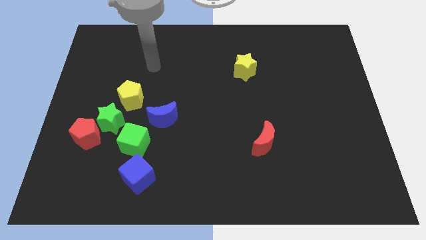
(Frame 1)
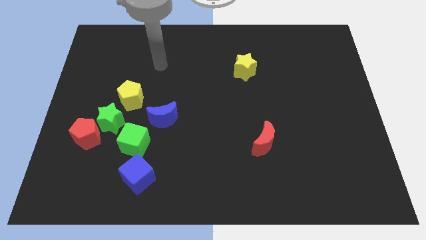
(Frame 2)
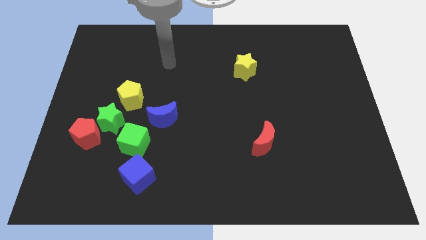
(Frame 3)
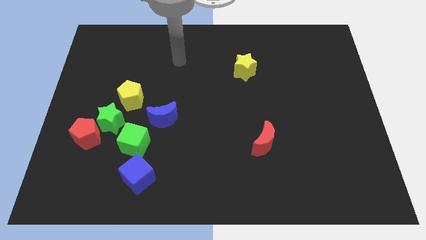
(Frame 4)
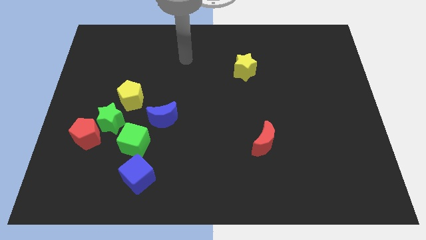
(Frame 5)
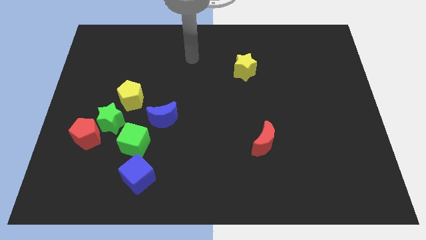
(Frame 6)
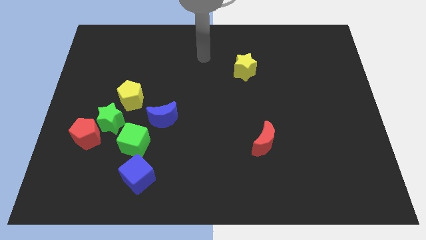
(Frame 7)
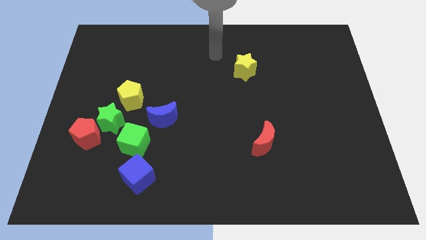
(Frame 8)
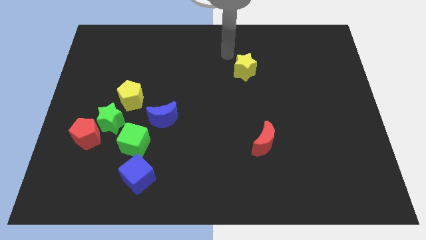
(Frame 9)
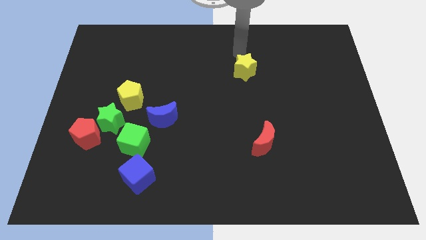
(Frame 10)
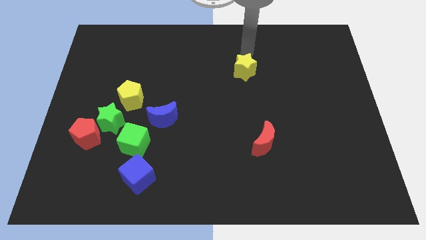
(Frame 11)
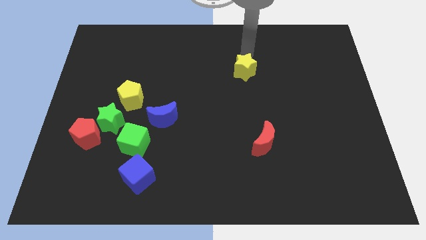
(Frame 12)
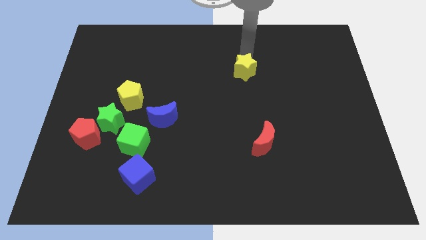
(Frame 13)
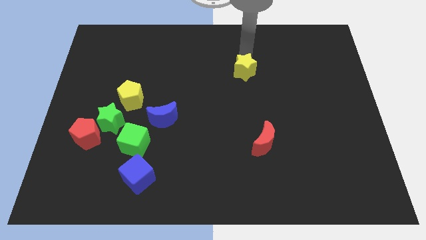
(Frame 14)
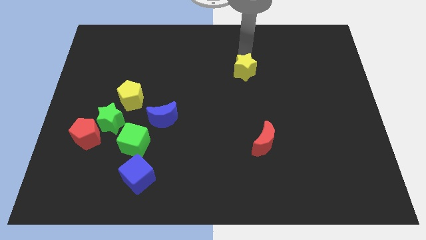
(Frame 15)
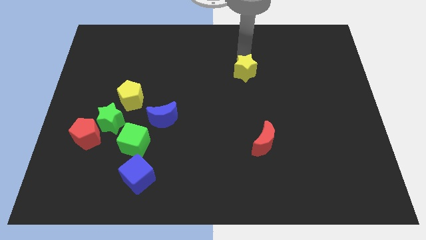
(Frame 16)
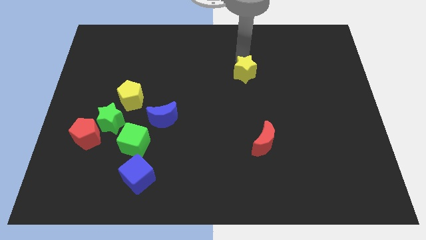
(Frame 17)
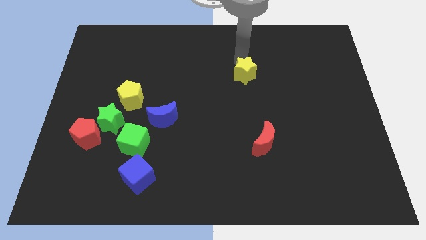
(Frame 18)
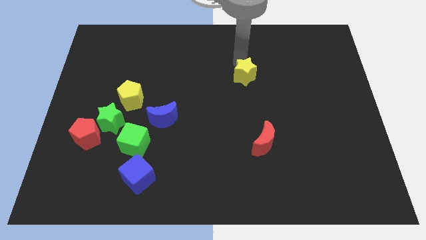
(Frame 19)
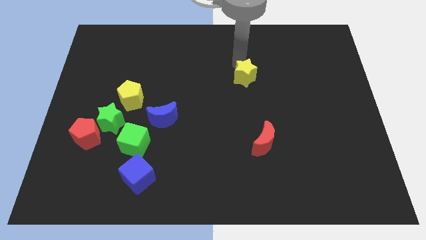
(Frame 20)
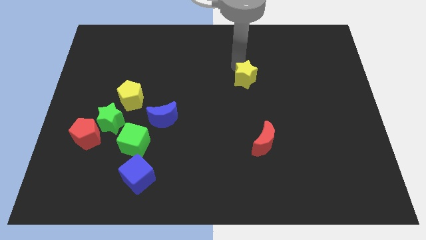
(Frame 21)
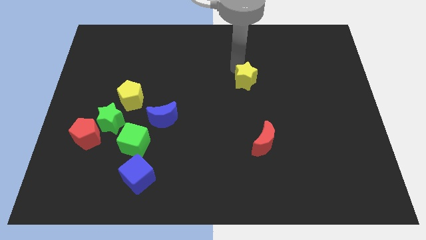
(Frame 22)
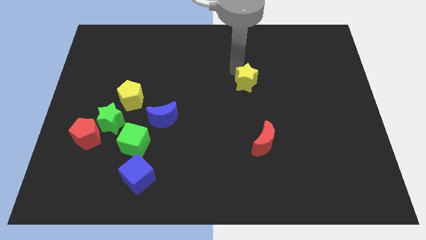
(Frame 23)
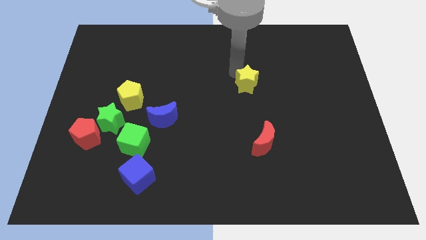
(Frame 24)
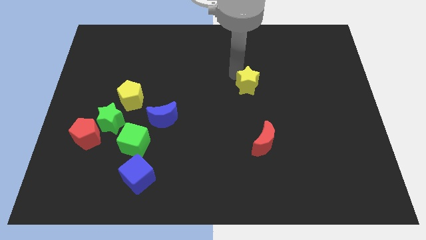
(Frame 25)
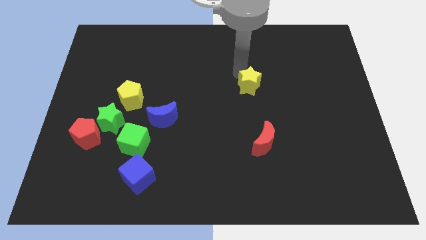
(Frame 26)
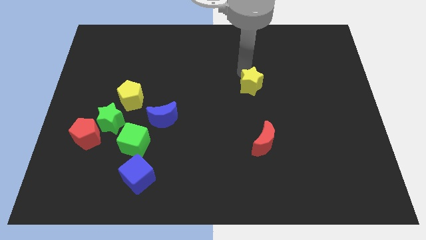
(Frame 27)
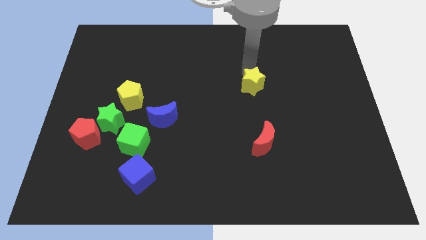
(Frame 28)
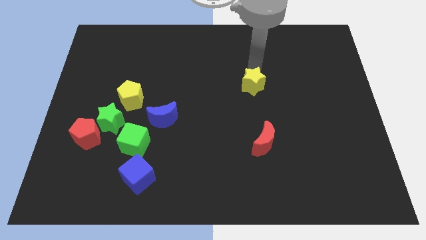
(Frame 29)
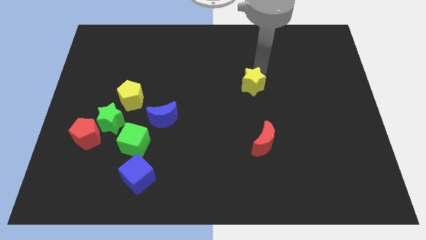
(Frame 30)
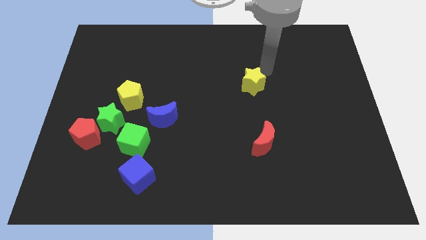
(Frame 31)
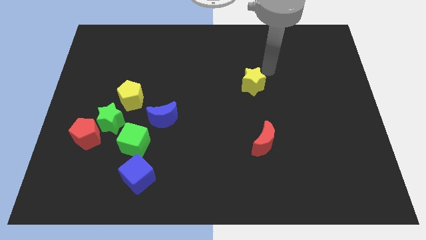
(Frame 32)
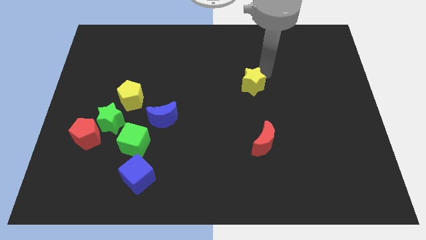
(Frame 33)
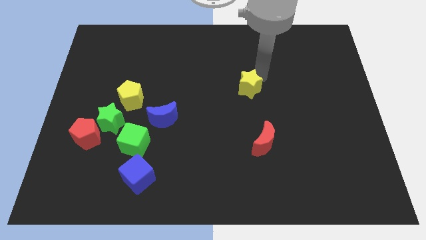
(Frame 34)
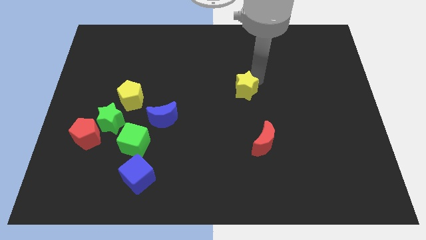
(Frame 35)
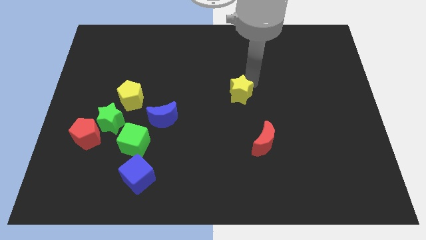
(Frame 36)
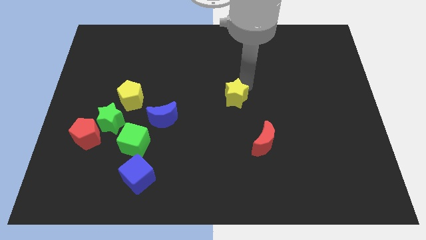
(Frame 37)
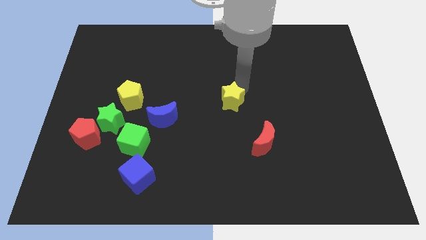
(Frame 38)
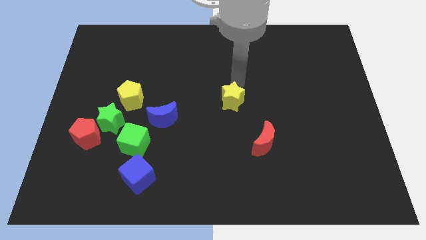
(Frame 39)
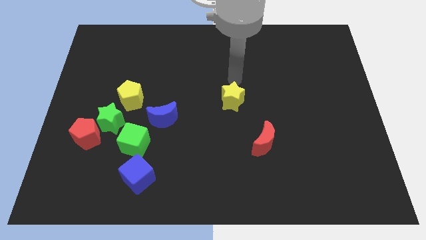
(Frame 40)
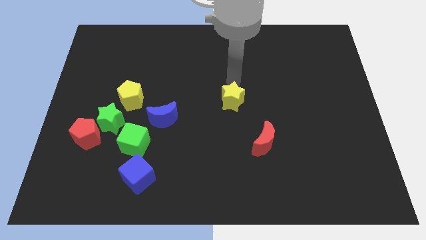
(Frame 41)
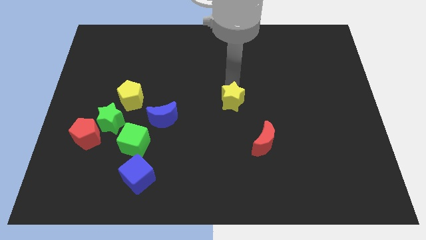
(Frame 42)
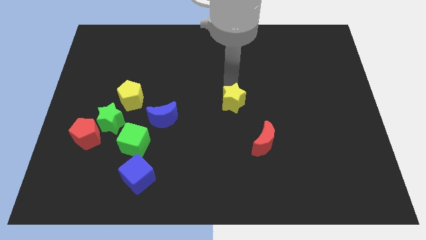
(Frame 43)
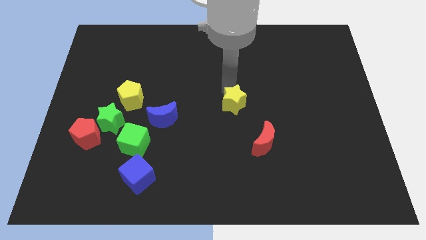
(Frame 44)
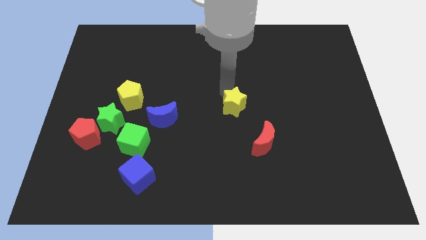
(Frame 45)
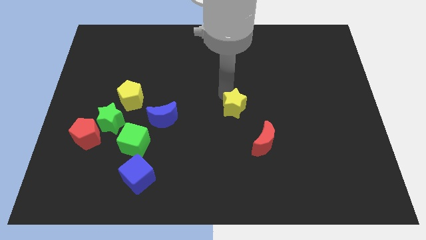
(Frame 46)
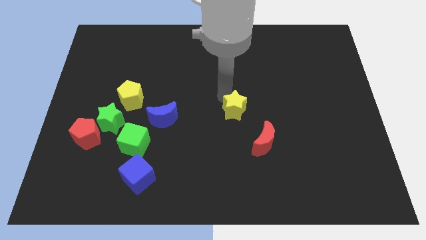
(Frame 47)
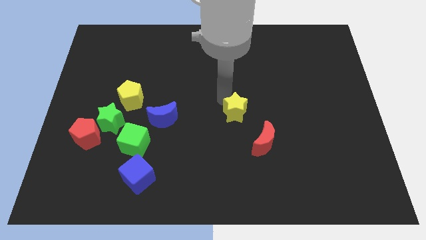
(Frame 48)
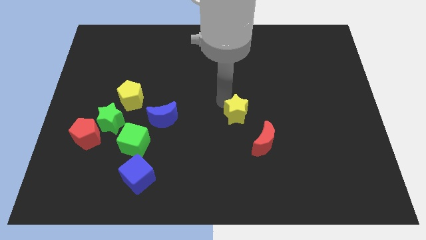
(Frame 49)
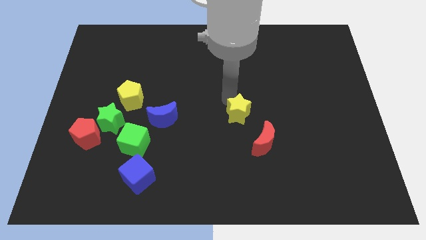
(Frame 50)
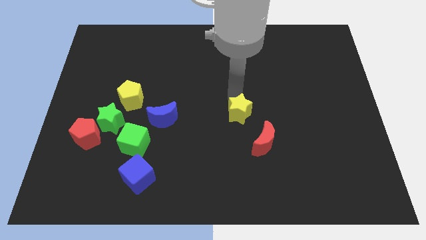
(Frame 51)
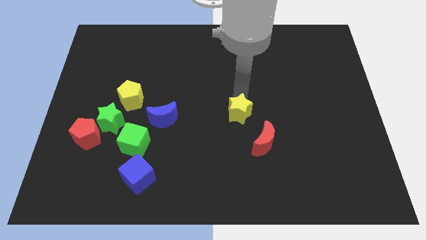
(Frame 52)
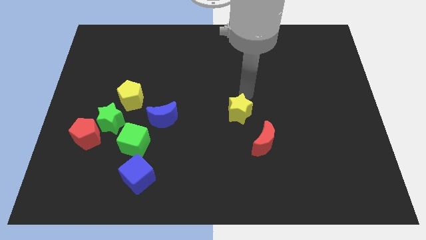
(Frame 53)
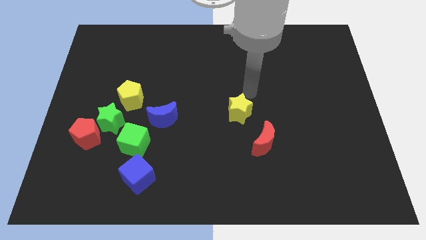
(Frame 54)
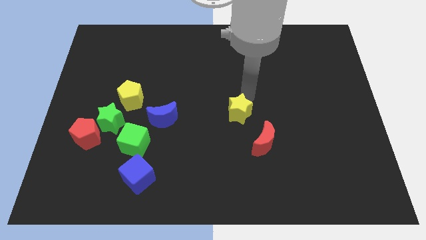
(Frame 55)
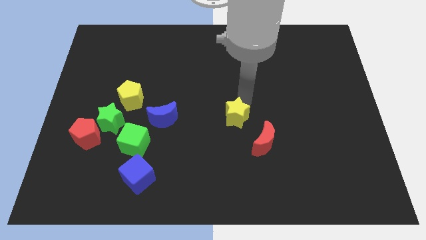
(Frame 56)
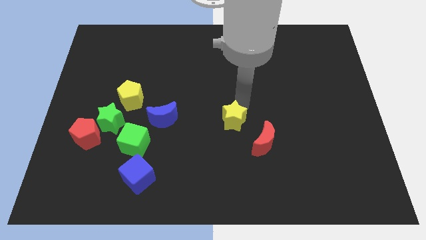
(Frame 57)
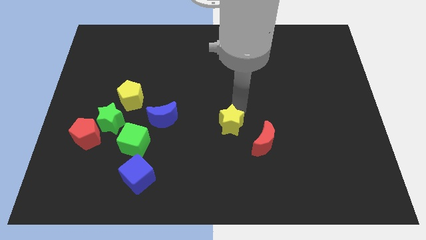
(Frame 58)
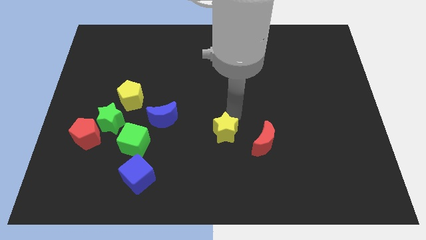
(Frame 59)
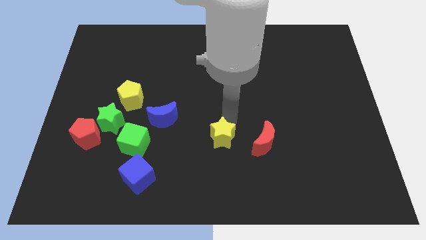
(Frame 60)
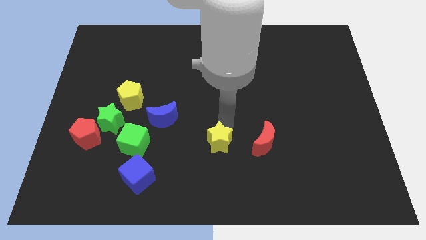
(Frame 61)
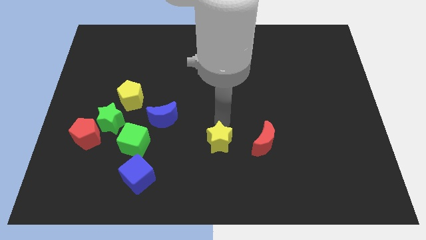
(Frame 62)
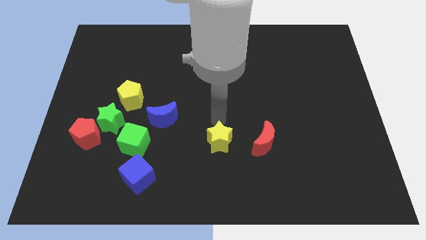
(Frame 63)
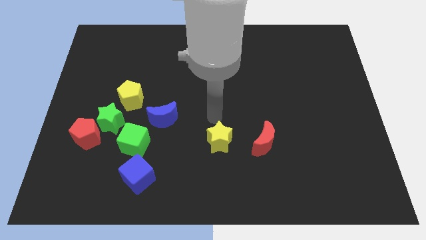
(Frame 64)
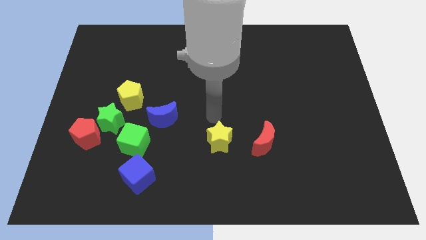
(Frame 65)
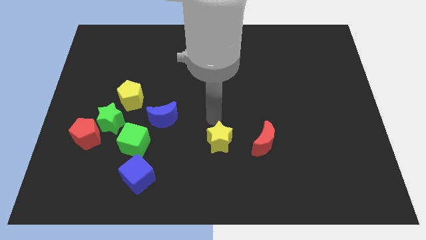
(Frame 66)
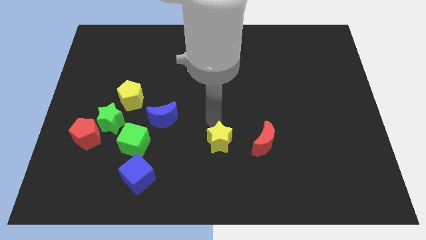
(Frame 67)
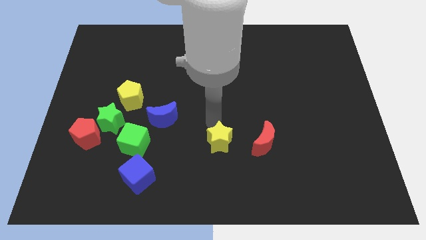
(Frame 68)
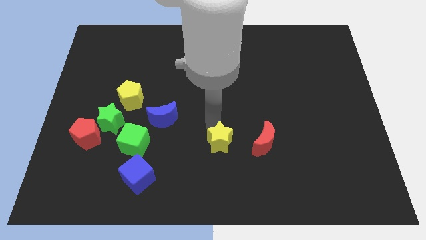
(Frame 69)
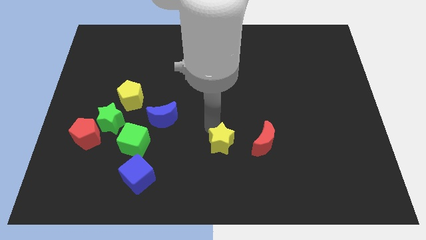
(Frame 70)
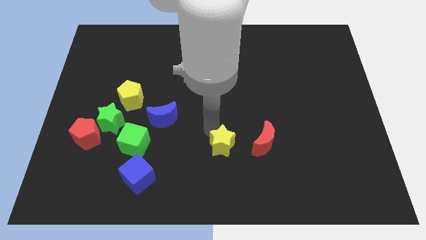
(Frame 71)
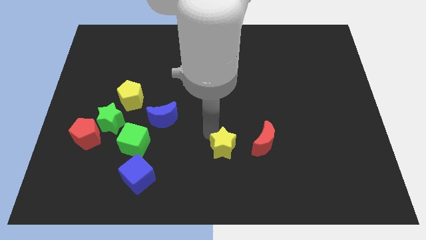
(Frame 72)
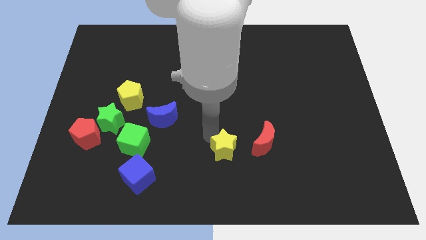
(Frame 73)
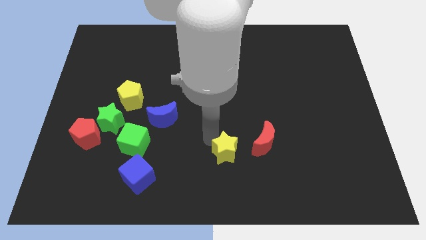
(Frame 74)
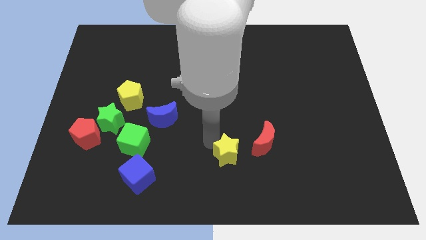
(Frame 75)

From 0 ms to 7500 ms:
move the yellow star to the bottom side
